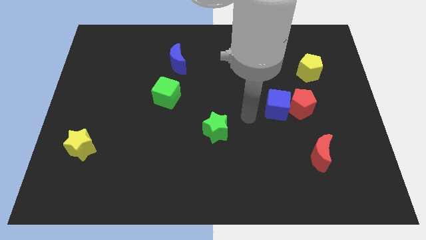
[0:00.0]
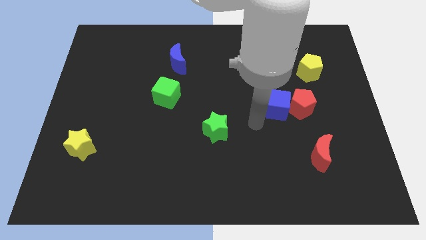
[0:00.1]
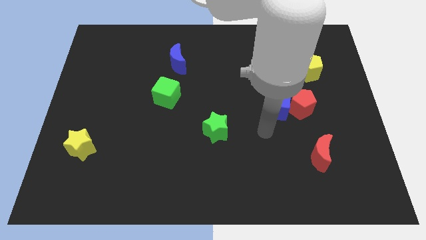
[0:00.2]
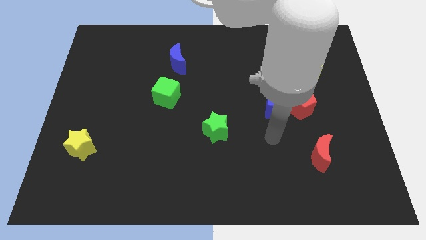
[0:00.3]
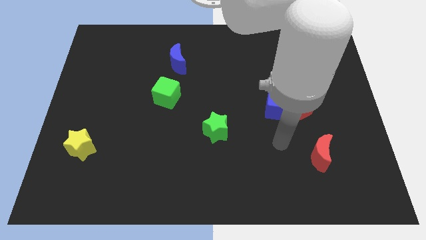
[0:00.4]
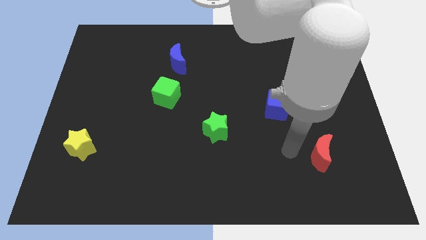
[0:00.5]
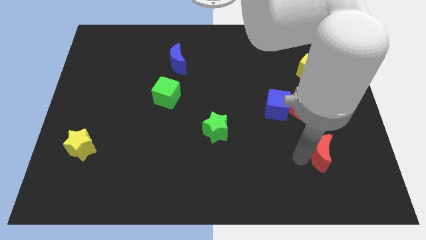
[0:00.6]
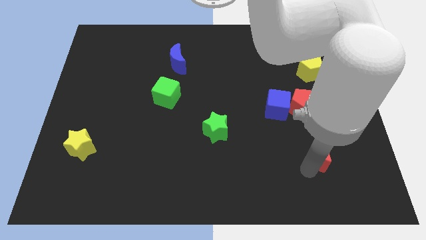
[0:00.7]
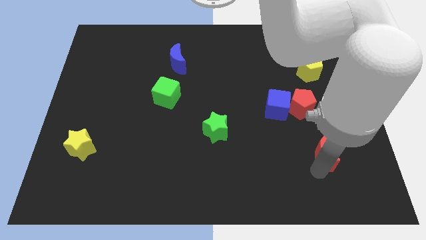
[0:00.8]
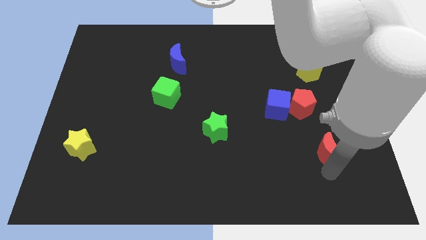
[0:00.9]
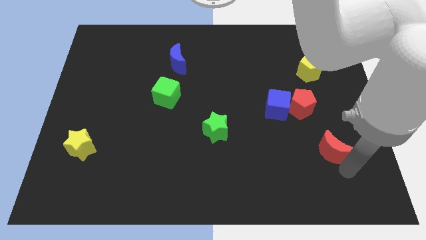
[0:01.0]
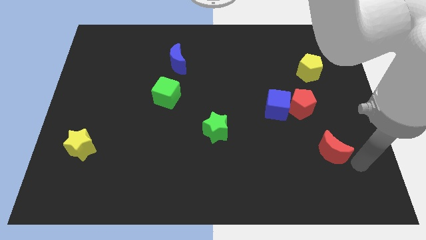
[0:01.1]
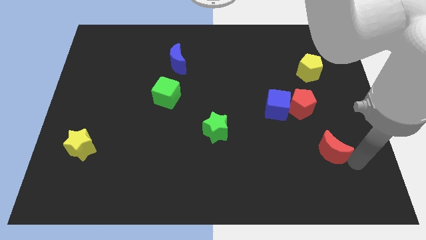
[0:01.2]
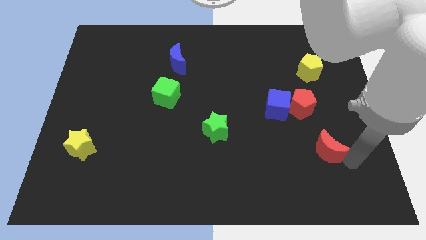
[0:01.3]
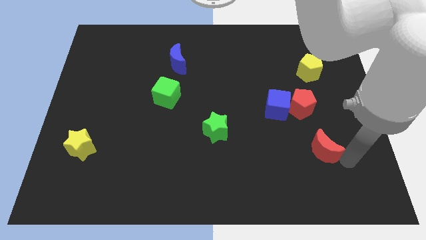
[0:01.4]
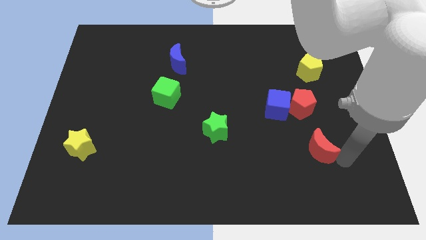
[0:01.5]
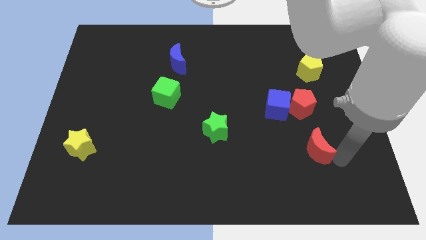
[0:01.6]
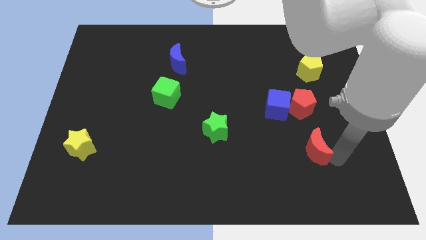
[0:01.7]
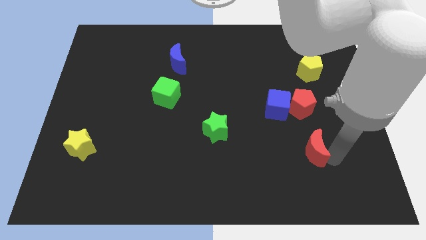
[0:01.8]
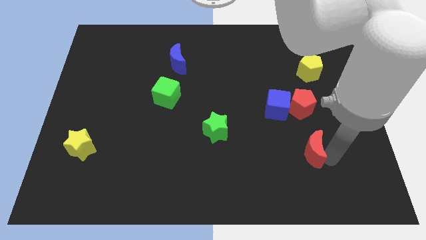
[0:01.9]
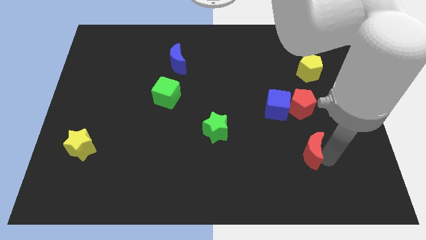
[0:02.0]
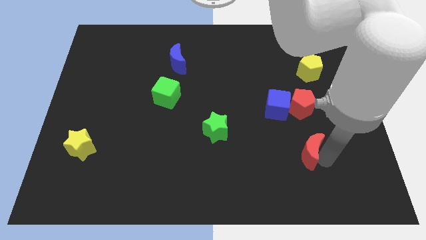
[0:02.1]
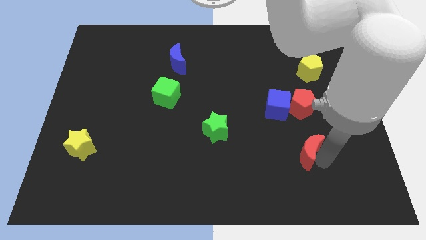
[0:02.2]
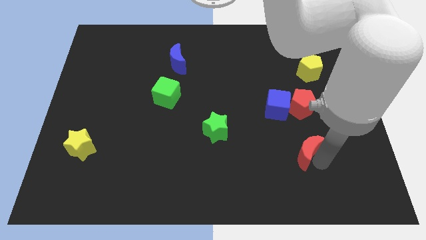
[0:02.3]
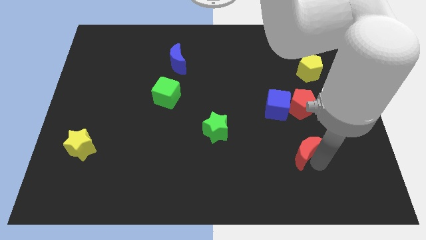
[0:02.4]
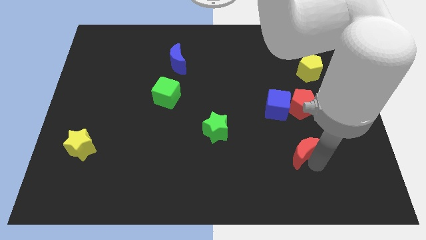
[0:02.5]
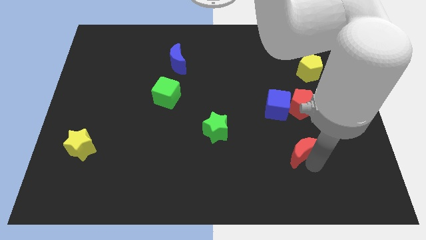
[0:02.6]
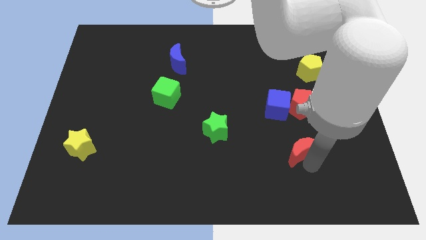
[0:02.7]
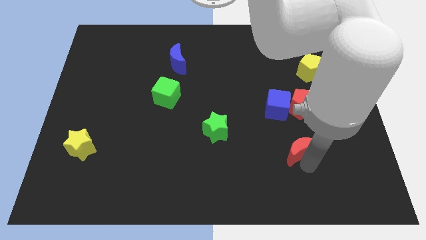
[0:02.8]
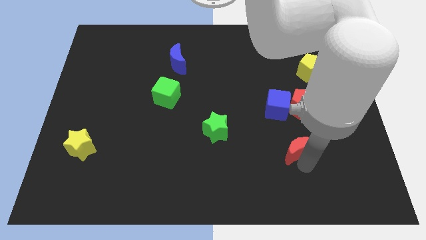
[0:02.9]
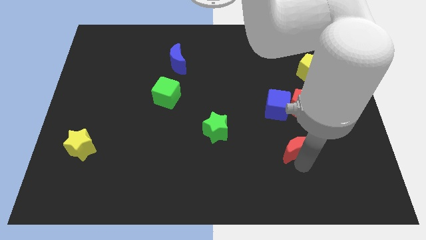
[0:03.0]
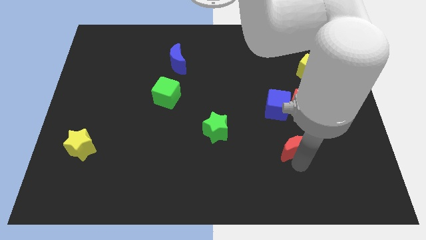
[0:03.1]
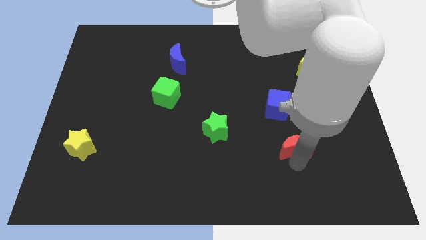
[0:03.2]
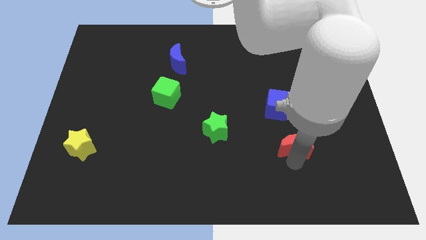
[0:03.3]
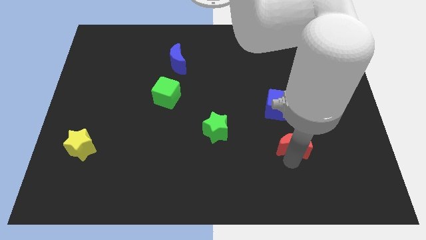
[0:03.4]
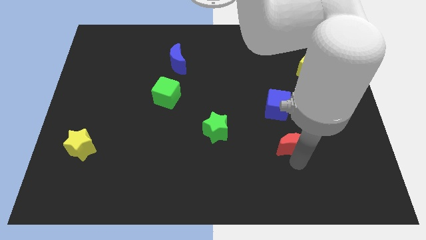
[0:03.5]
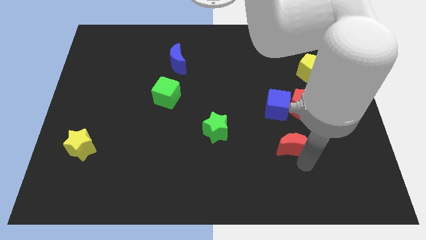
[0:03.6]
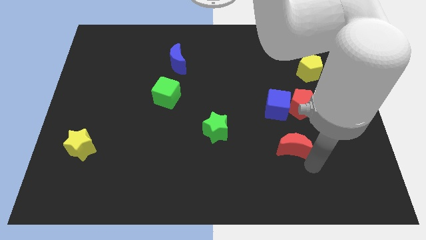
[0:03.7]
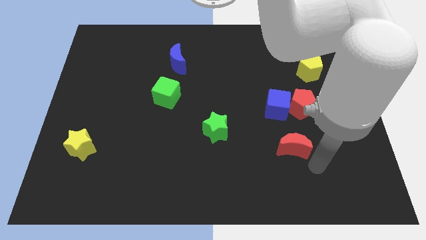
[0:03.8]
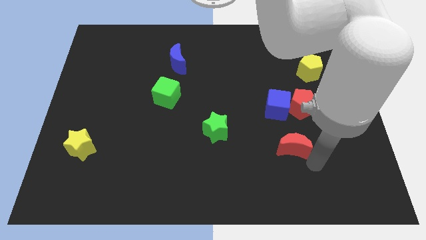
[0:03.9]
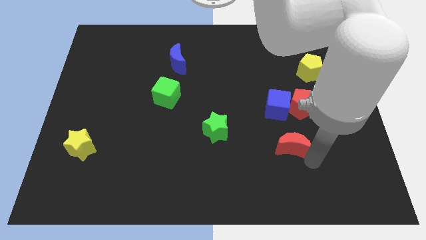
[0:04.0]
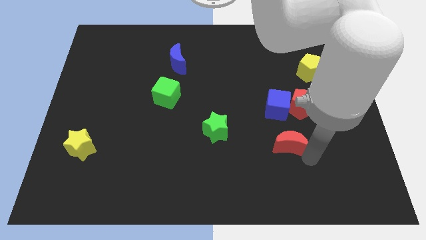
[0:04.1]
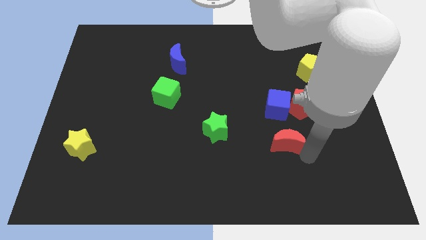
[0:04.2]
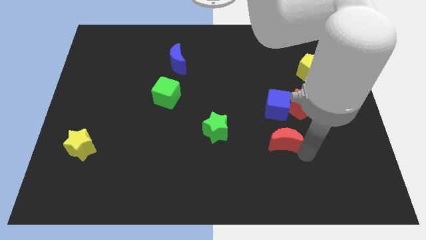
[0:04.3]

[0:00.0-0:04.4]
slightly move the red moon up and to the left

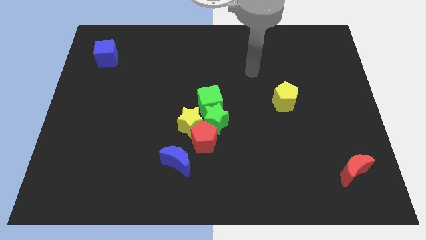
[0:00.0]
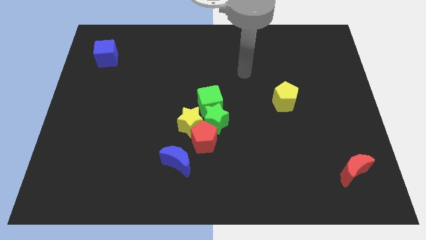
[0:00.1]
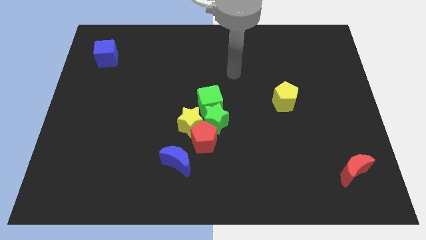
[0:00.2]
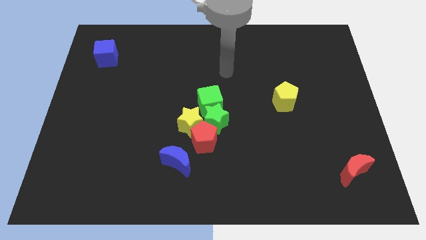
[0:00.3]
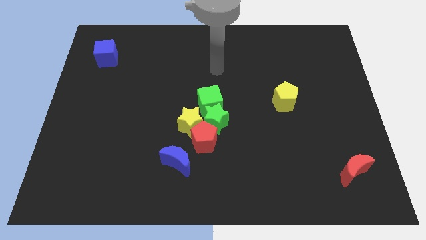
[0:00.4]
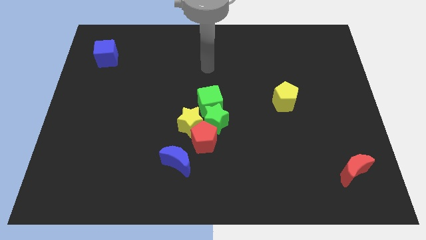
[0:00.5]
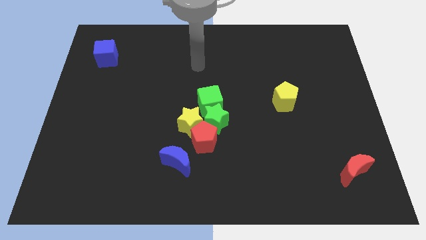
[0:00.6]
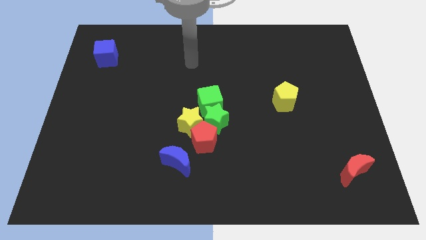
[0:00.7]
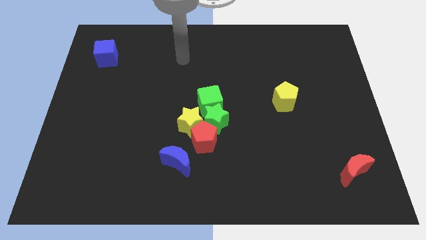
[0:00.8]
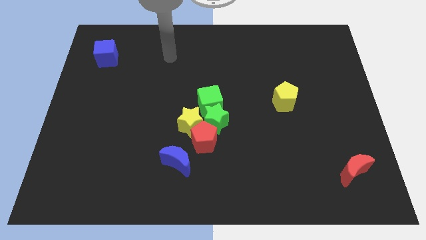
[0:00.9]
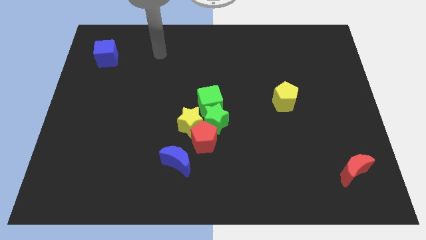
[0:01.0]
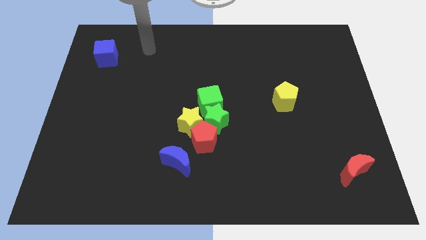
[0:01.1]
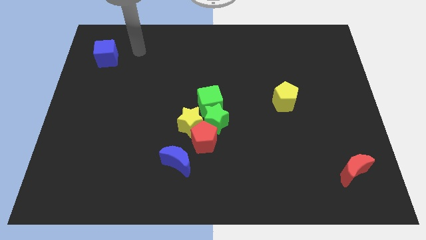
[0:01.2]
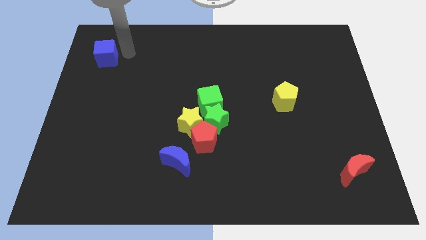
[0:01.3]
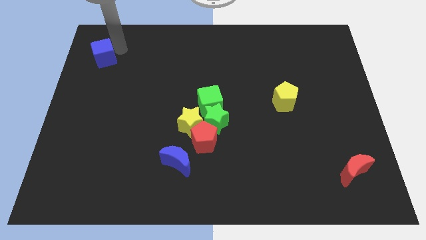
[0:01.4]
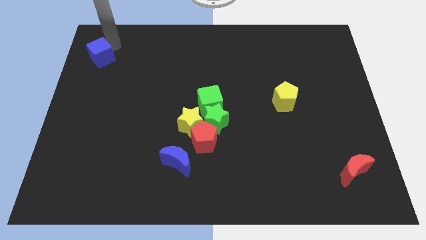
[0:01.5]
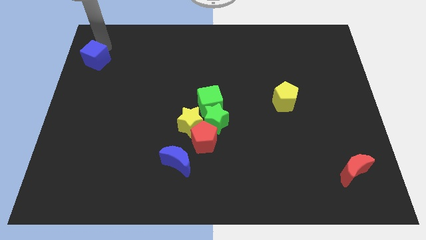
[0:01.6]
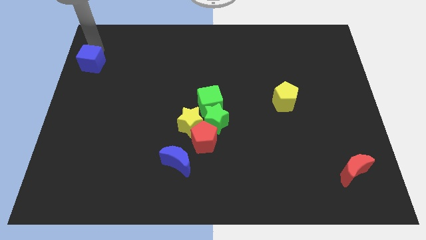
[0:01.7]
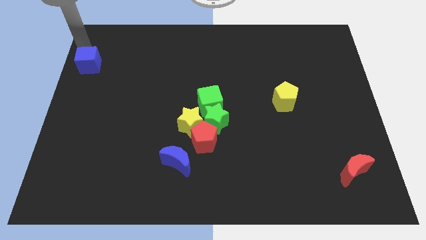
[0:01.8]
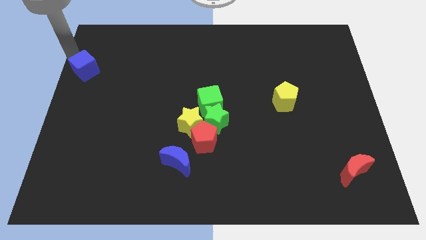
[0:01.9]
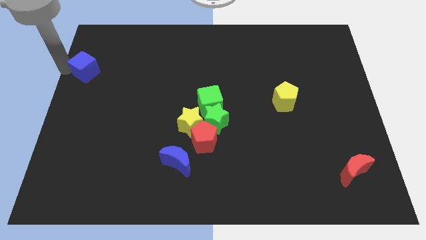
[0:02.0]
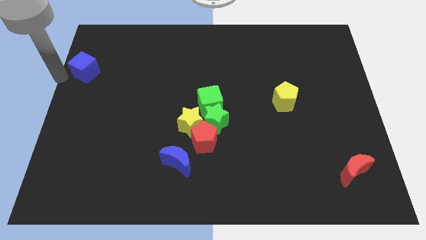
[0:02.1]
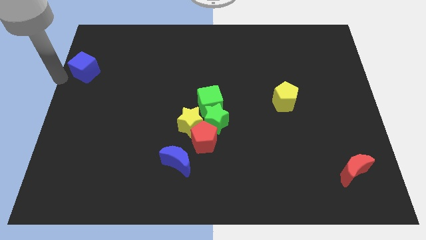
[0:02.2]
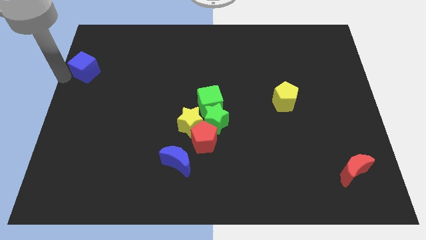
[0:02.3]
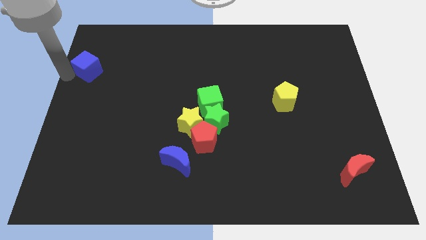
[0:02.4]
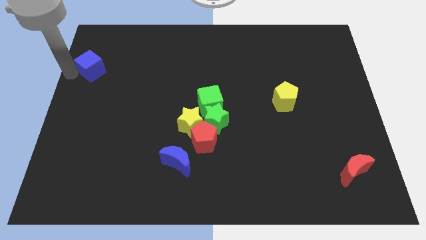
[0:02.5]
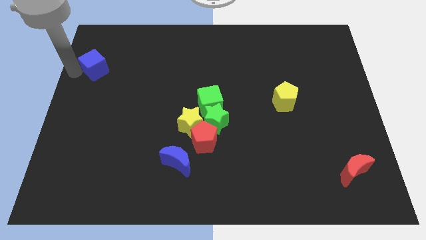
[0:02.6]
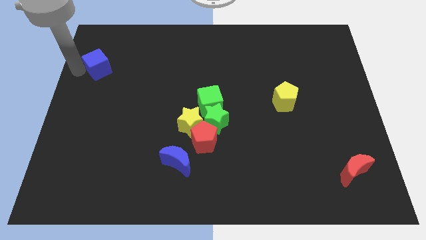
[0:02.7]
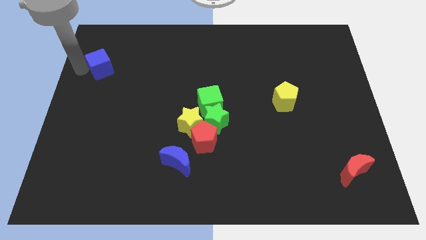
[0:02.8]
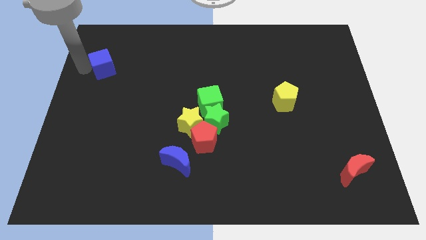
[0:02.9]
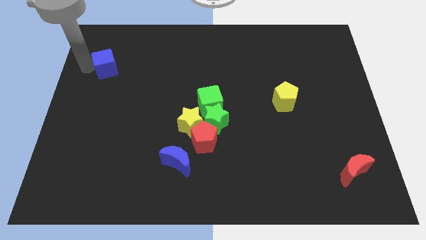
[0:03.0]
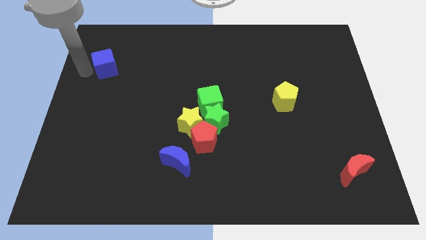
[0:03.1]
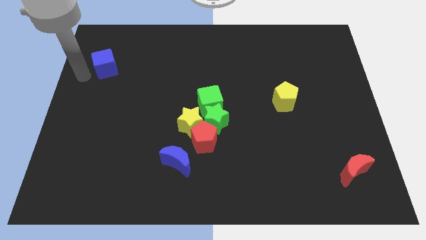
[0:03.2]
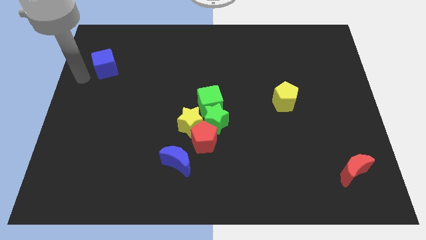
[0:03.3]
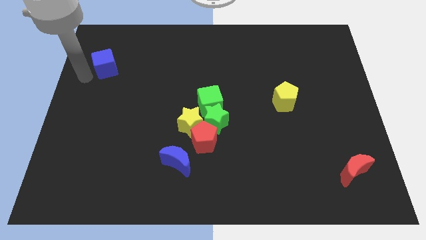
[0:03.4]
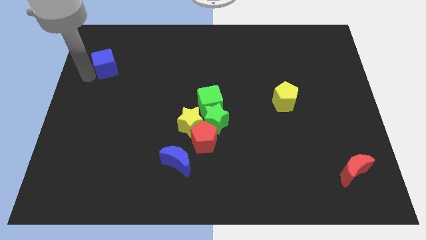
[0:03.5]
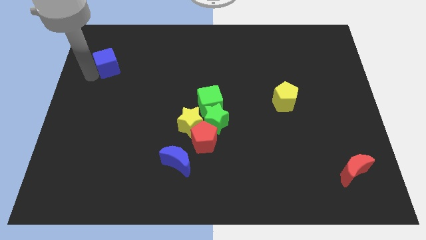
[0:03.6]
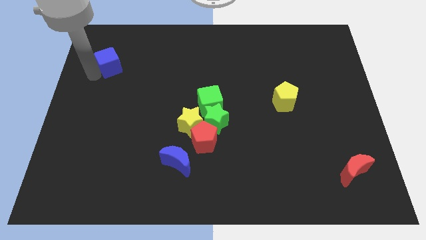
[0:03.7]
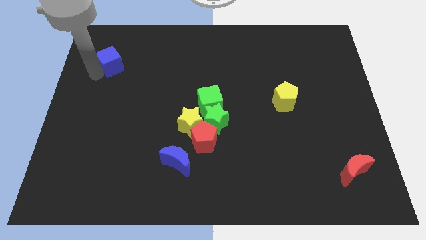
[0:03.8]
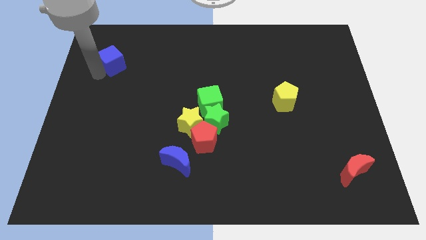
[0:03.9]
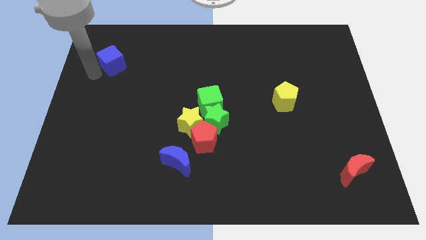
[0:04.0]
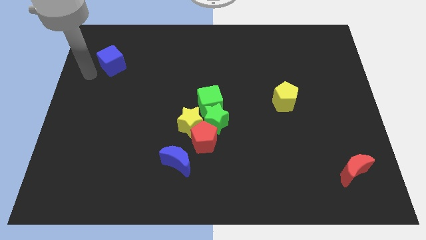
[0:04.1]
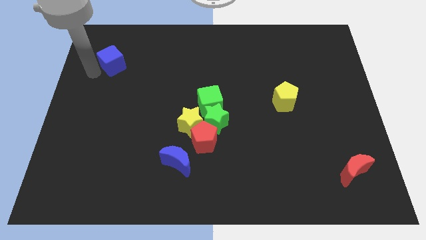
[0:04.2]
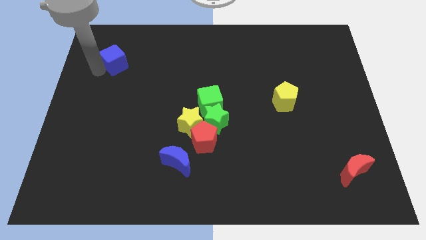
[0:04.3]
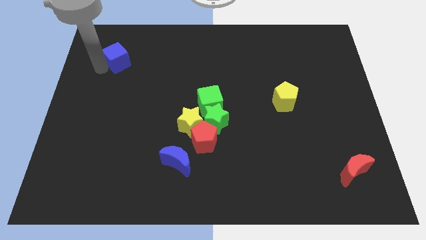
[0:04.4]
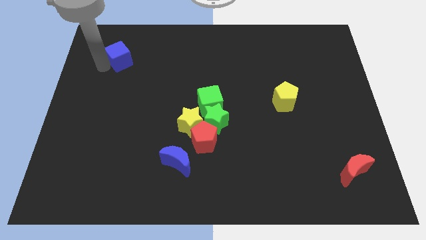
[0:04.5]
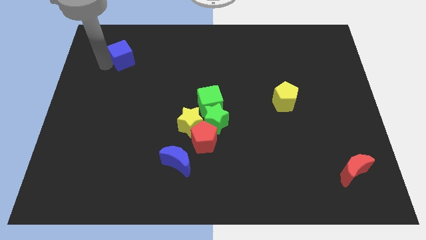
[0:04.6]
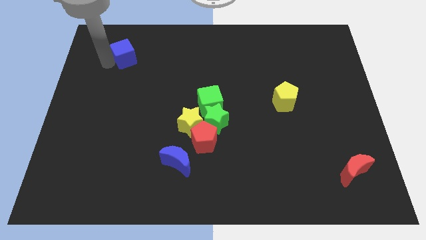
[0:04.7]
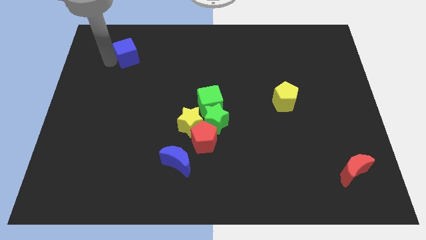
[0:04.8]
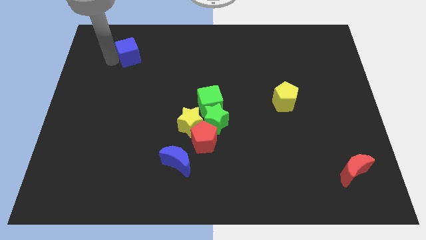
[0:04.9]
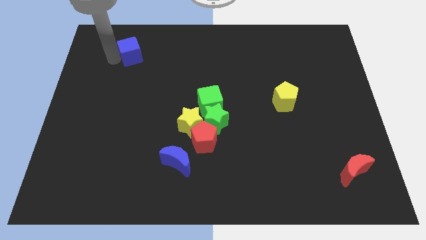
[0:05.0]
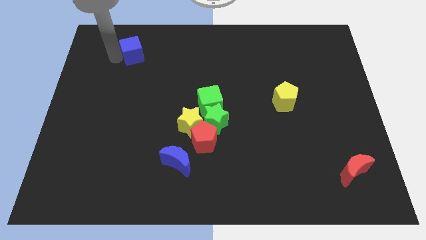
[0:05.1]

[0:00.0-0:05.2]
push the blue cube a bit to the right
